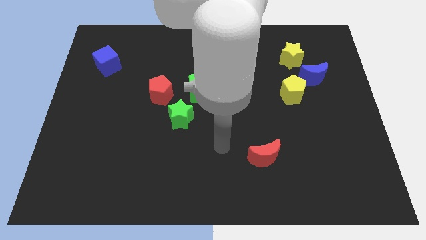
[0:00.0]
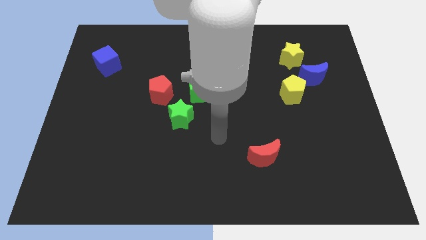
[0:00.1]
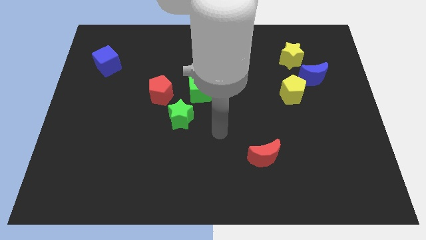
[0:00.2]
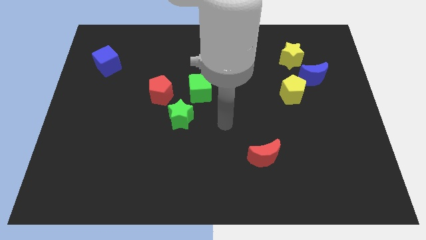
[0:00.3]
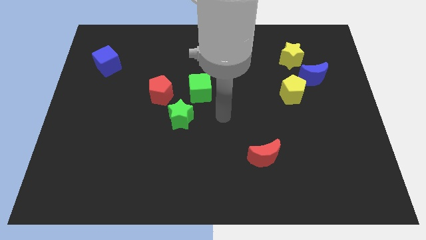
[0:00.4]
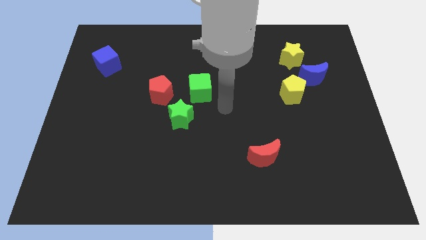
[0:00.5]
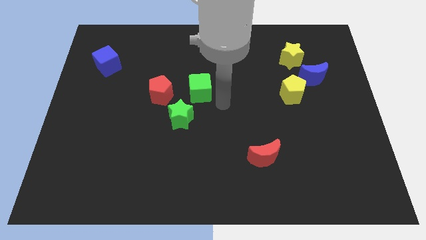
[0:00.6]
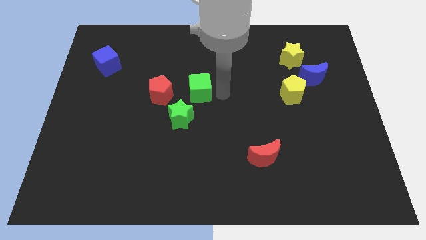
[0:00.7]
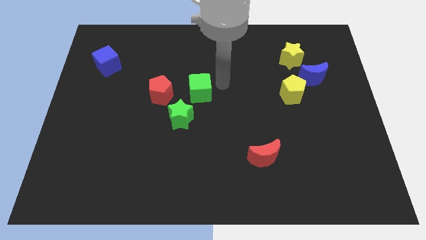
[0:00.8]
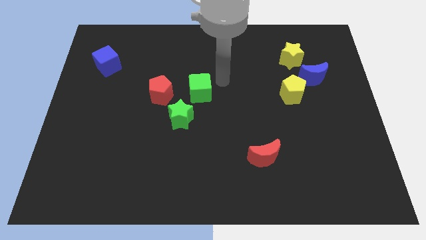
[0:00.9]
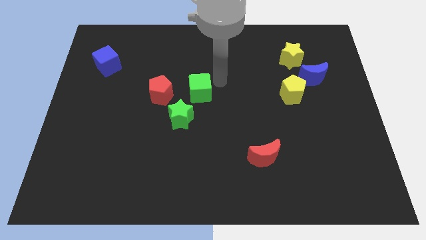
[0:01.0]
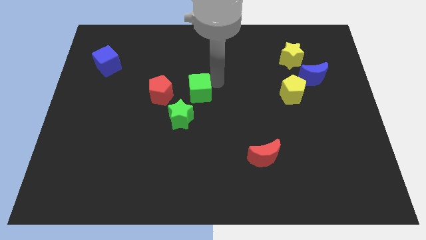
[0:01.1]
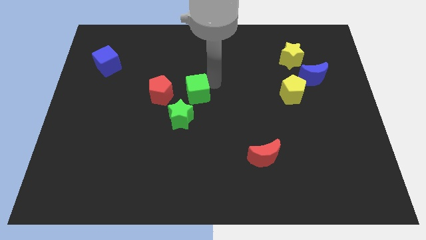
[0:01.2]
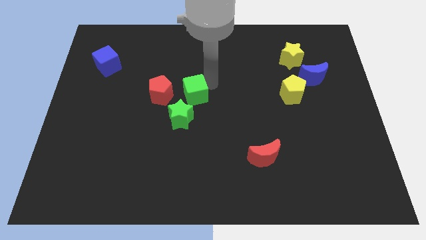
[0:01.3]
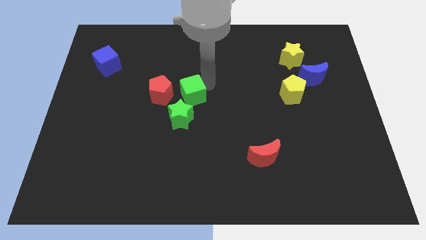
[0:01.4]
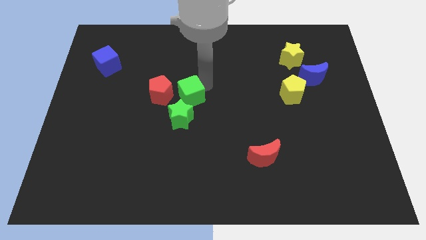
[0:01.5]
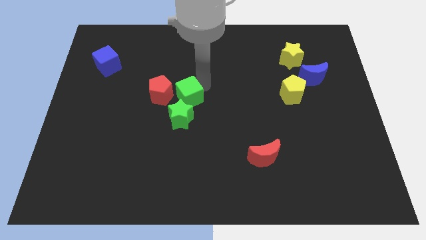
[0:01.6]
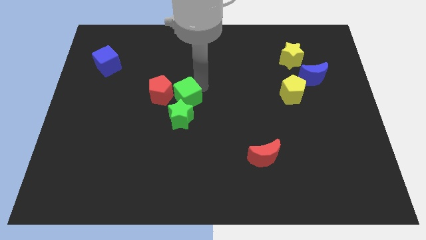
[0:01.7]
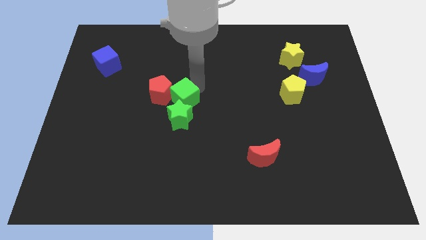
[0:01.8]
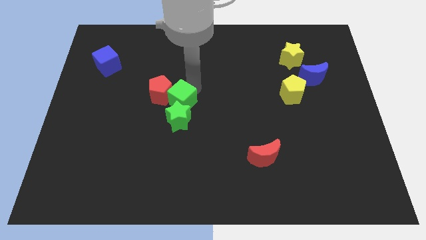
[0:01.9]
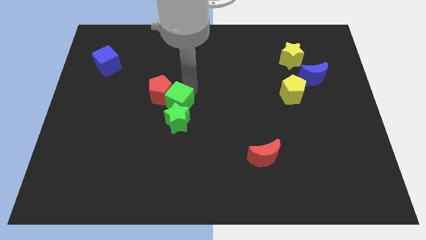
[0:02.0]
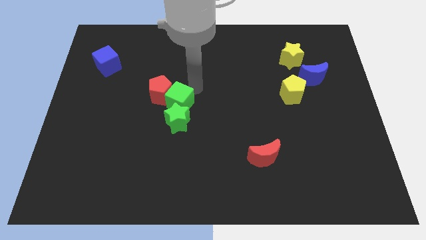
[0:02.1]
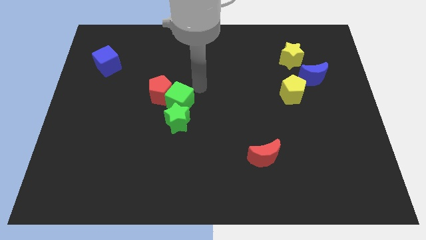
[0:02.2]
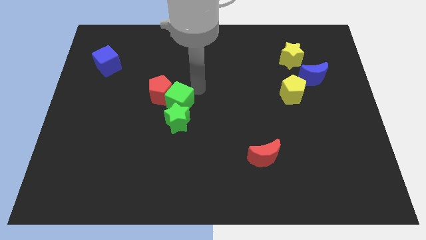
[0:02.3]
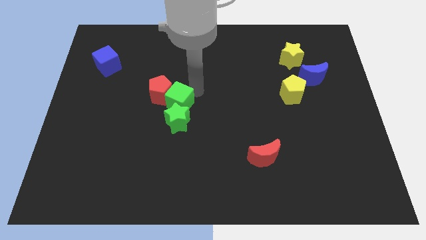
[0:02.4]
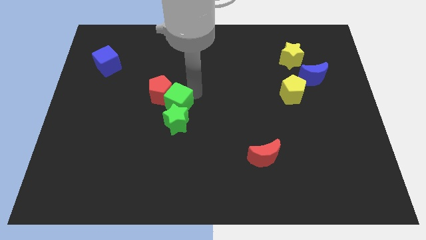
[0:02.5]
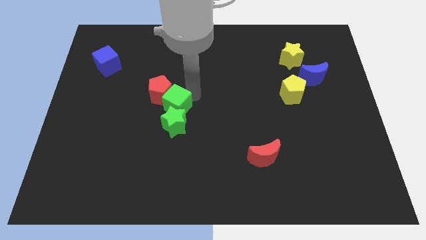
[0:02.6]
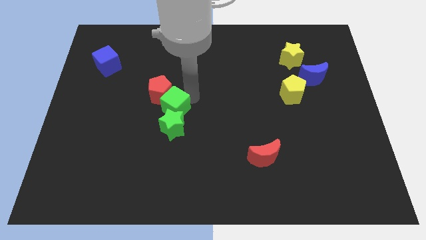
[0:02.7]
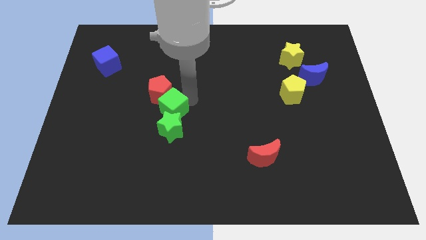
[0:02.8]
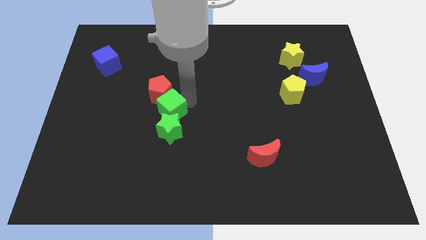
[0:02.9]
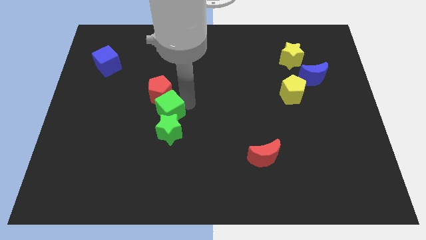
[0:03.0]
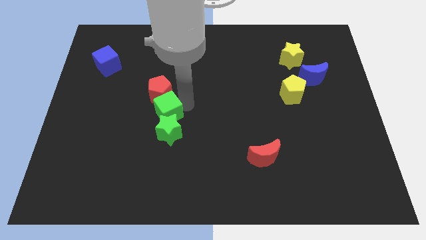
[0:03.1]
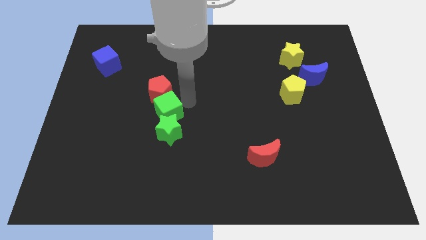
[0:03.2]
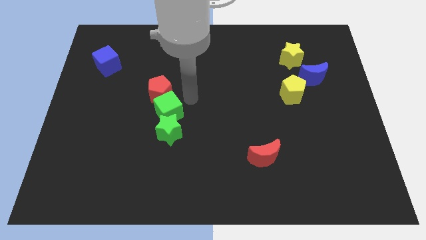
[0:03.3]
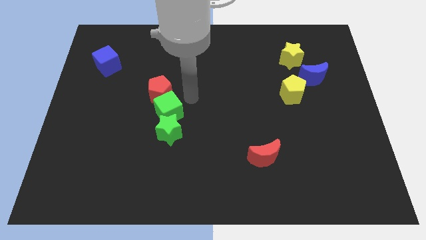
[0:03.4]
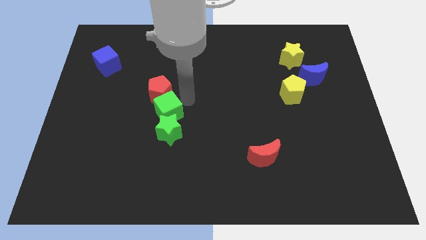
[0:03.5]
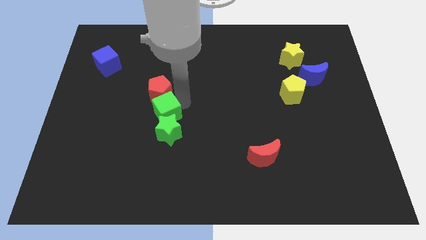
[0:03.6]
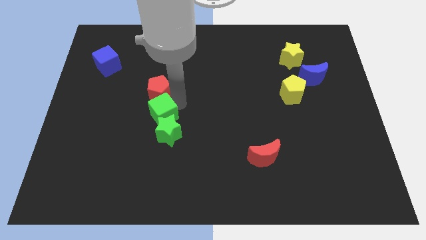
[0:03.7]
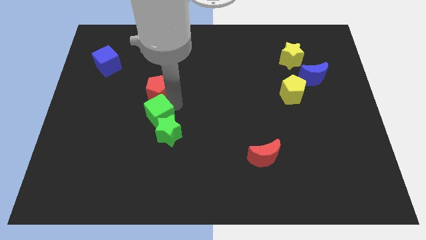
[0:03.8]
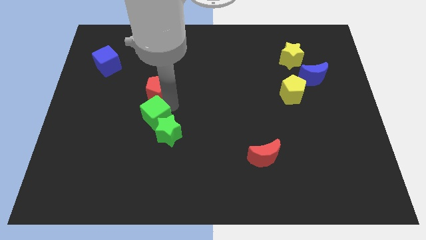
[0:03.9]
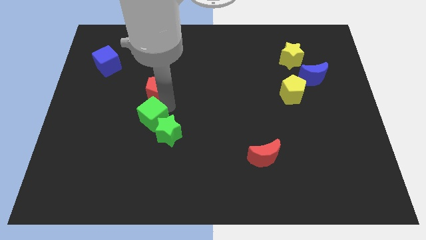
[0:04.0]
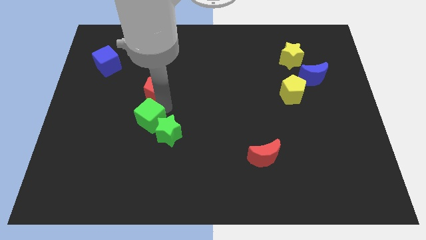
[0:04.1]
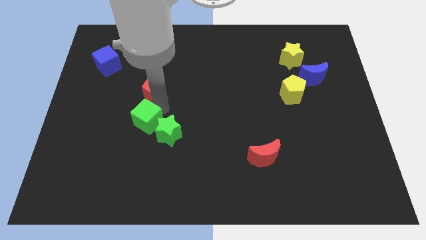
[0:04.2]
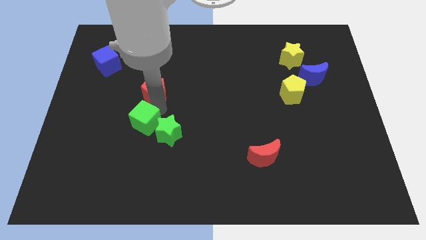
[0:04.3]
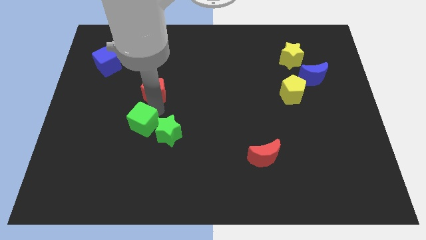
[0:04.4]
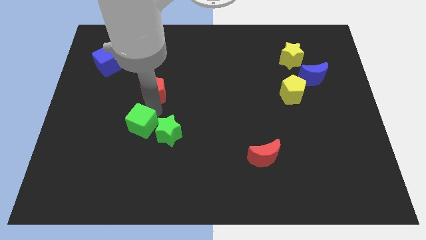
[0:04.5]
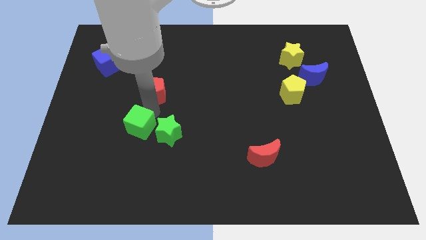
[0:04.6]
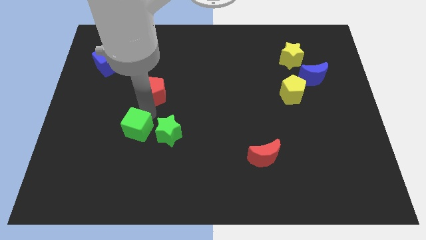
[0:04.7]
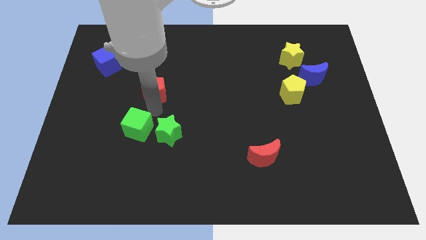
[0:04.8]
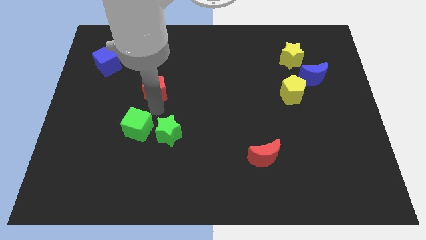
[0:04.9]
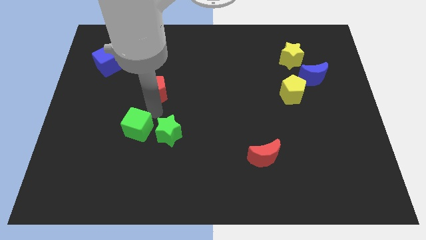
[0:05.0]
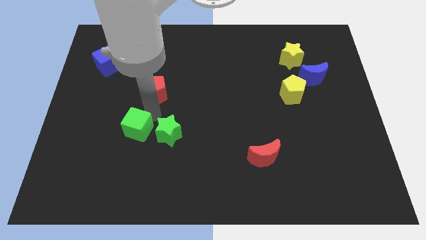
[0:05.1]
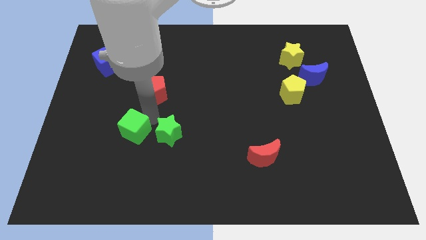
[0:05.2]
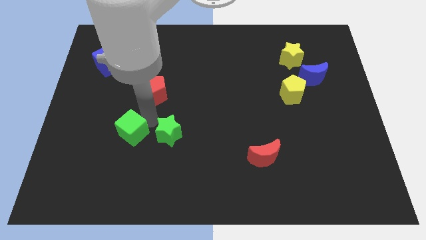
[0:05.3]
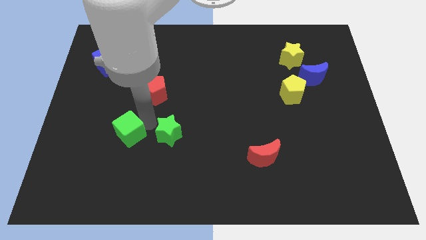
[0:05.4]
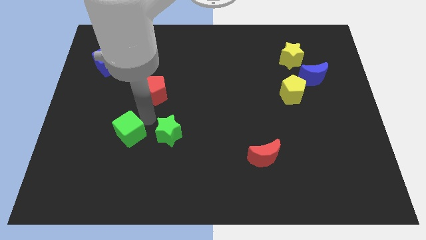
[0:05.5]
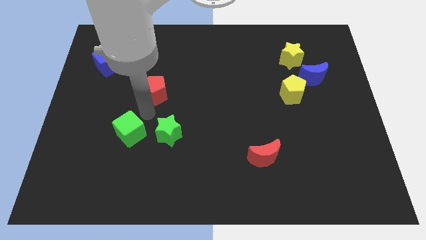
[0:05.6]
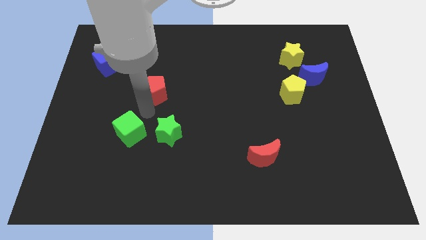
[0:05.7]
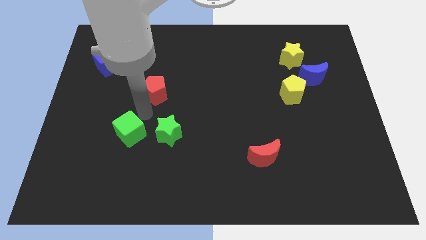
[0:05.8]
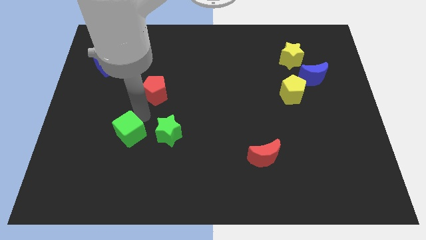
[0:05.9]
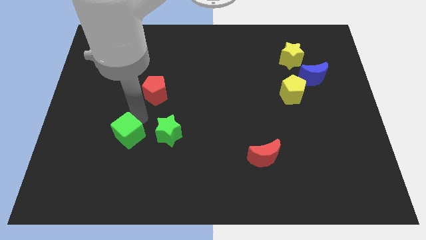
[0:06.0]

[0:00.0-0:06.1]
slide the green cube down and then left

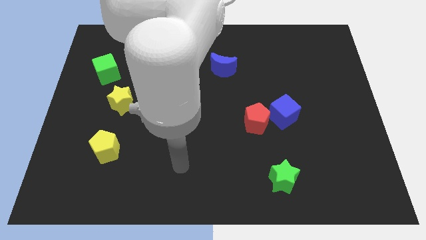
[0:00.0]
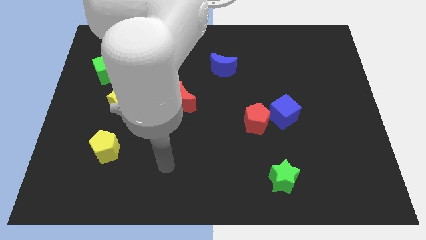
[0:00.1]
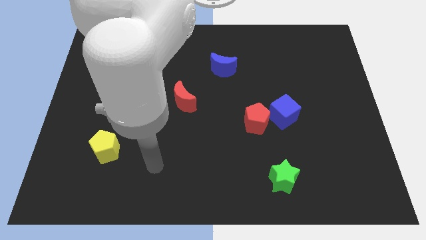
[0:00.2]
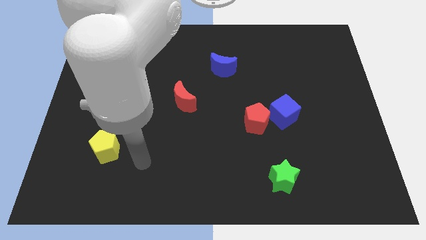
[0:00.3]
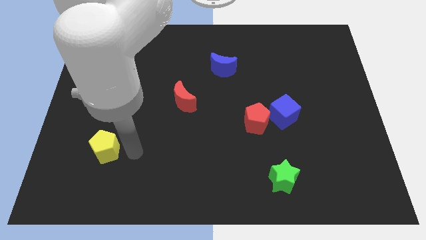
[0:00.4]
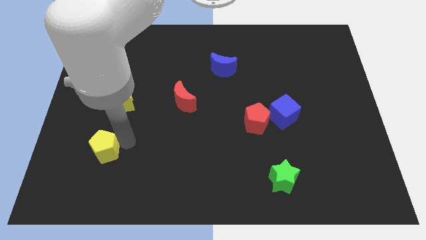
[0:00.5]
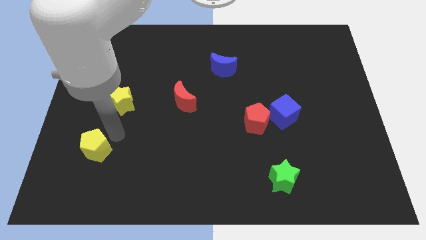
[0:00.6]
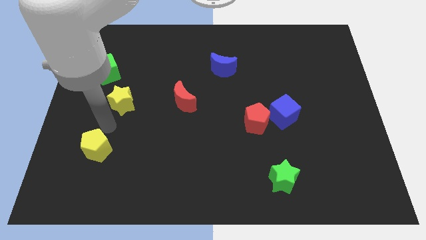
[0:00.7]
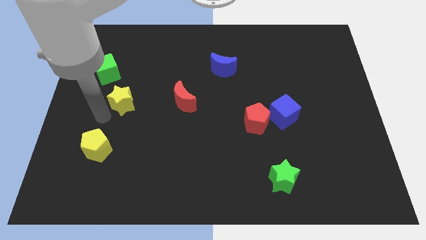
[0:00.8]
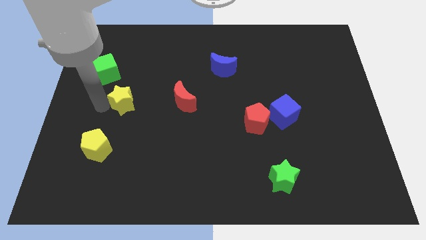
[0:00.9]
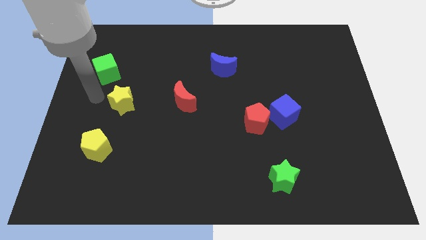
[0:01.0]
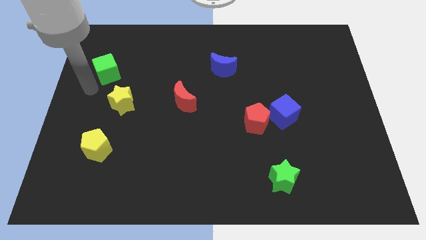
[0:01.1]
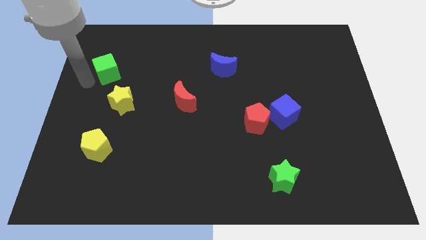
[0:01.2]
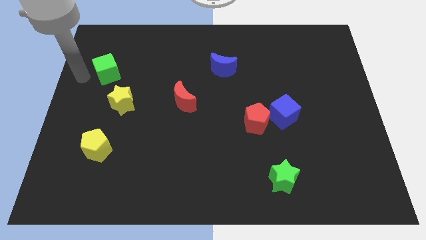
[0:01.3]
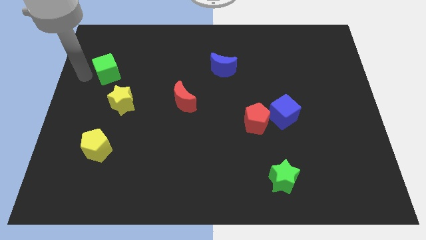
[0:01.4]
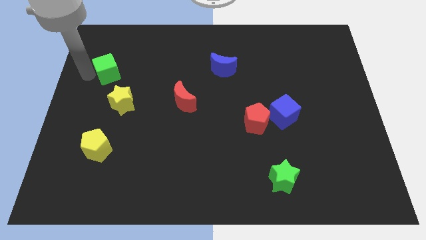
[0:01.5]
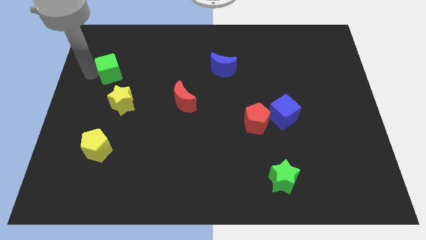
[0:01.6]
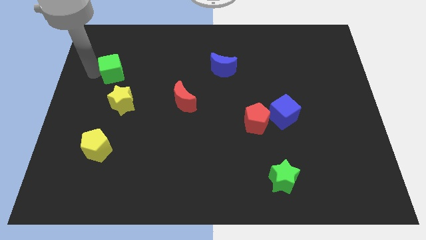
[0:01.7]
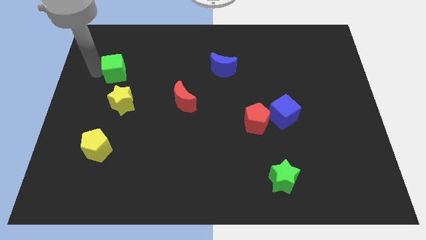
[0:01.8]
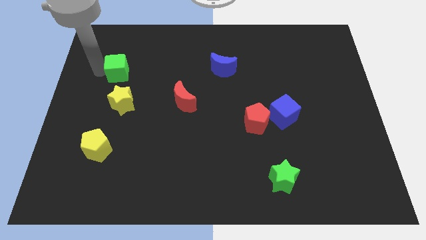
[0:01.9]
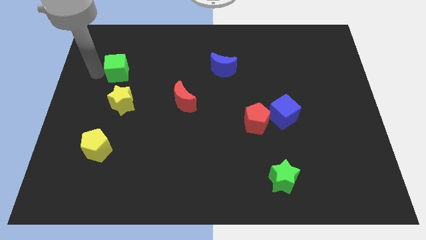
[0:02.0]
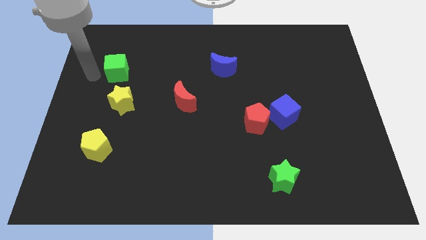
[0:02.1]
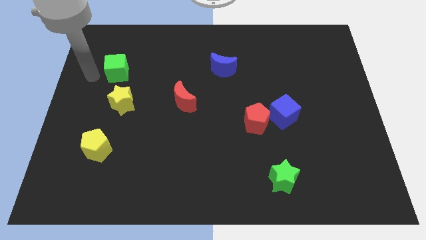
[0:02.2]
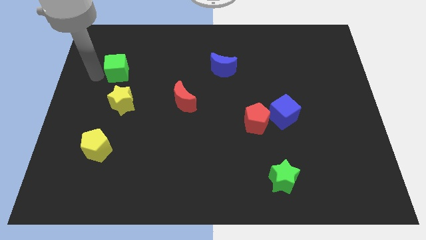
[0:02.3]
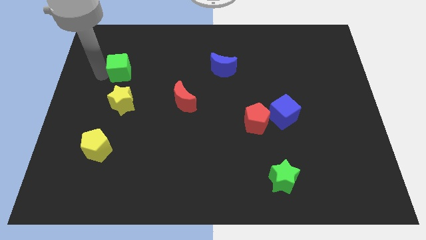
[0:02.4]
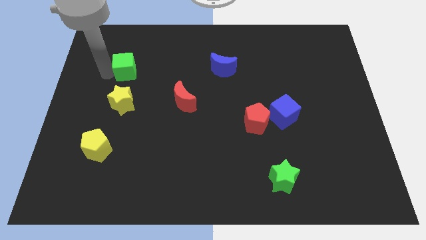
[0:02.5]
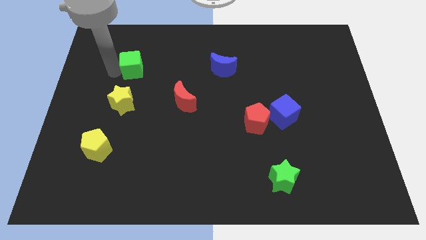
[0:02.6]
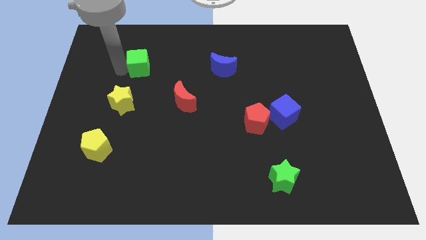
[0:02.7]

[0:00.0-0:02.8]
move the green cube a bit to the right
